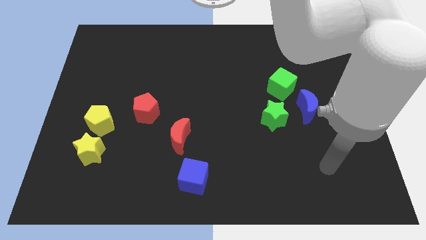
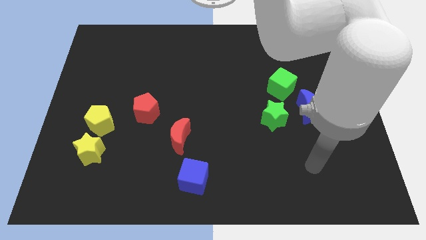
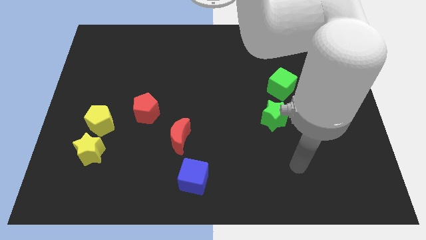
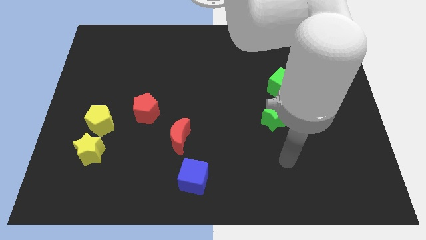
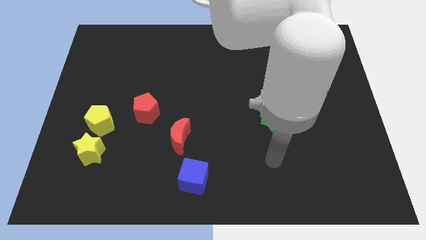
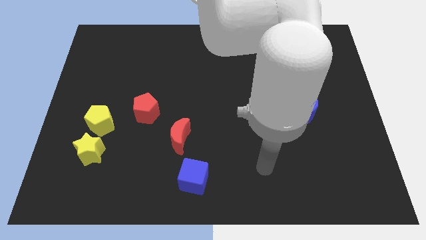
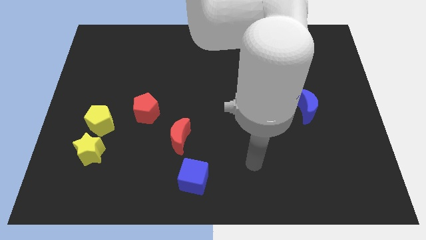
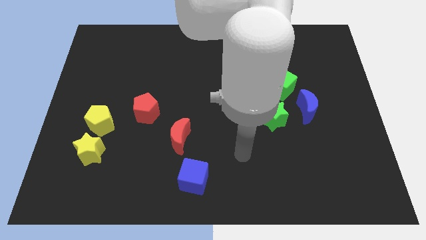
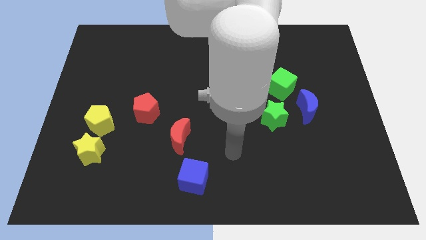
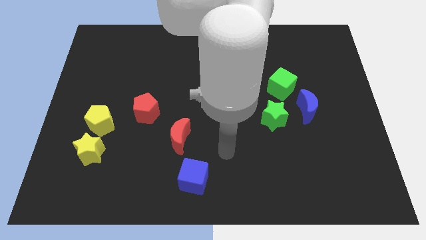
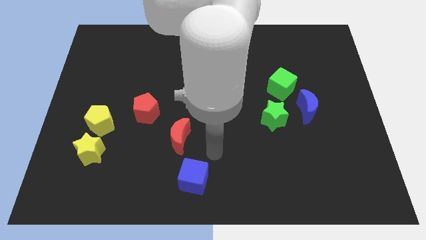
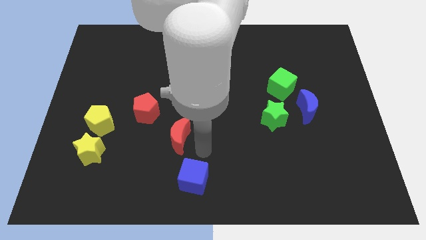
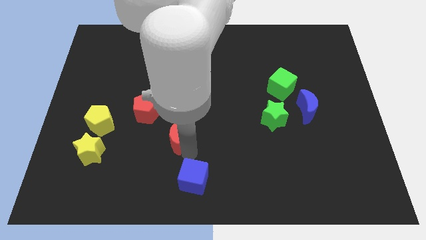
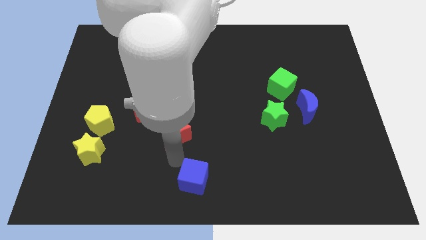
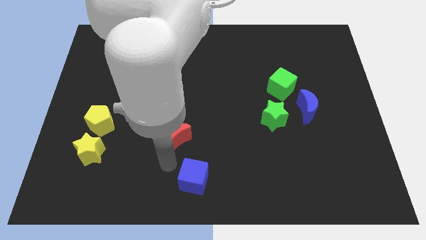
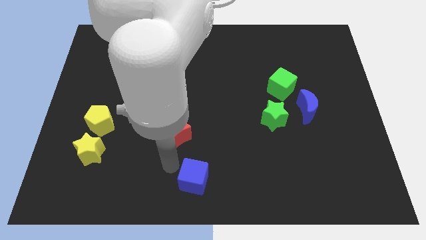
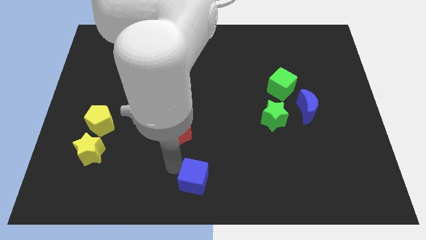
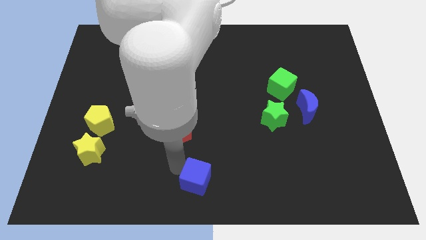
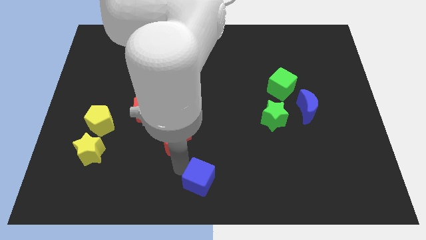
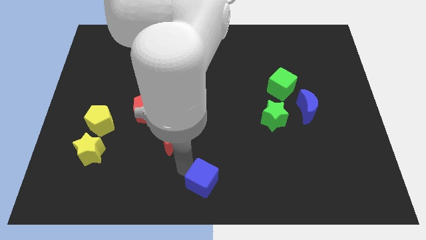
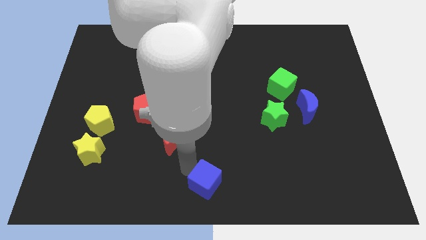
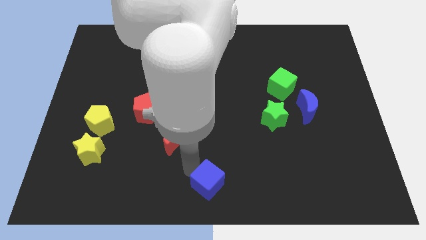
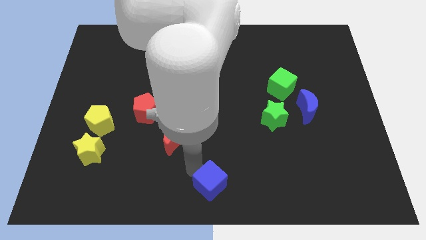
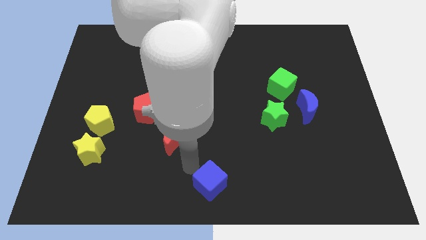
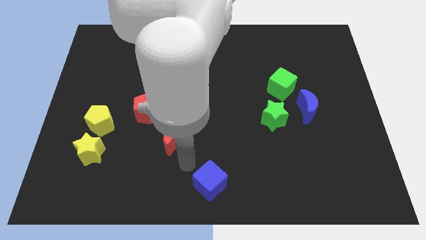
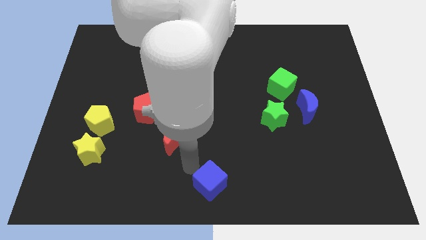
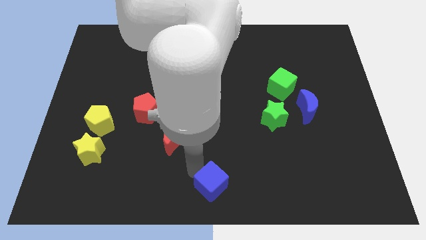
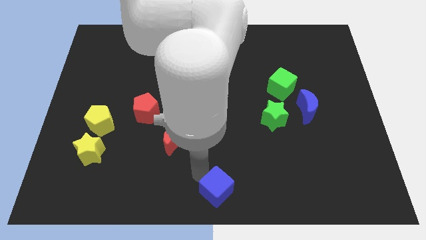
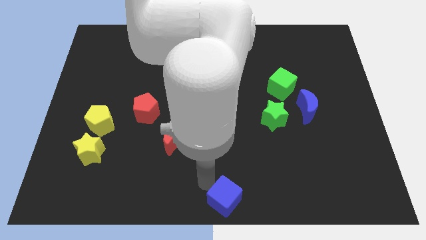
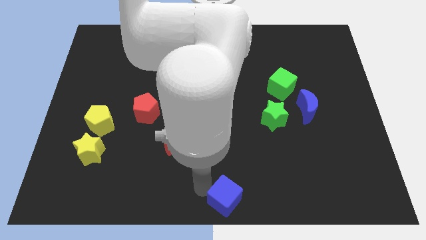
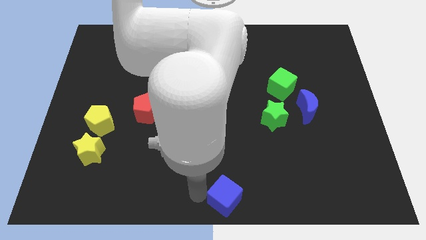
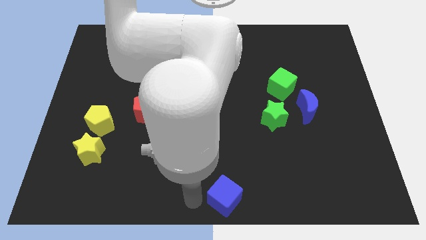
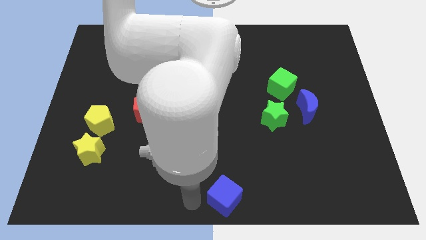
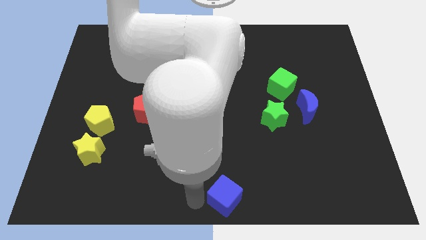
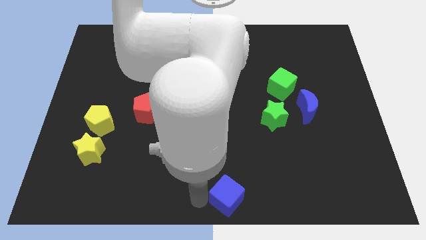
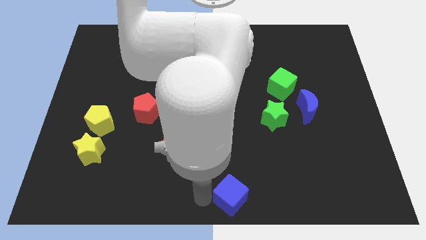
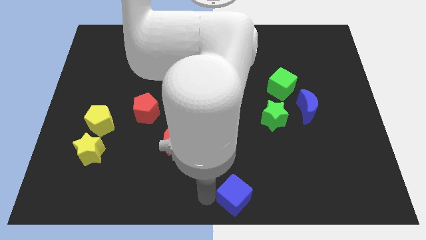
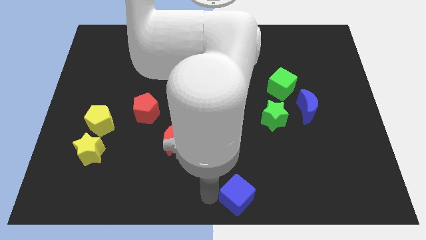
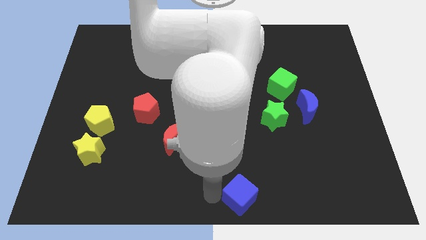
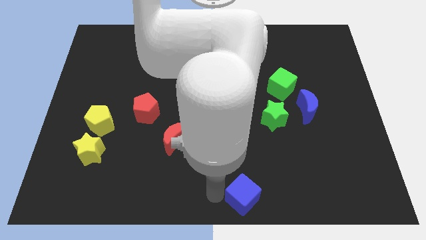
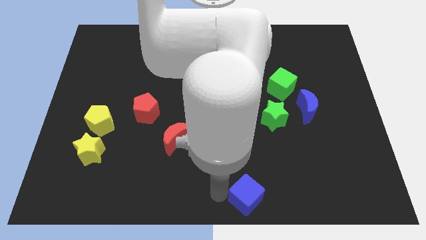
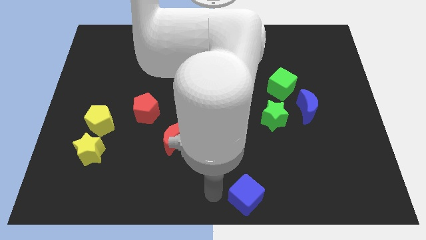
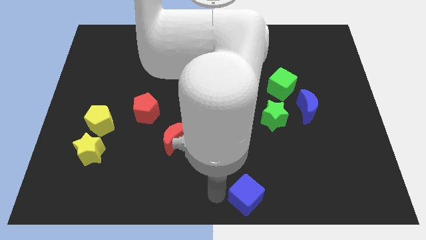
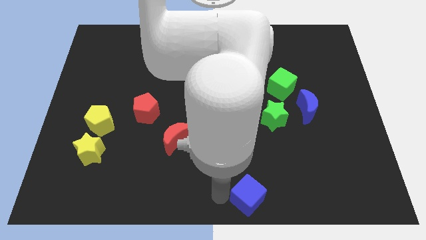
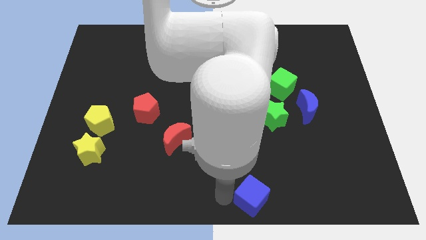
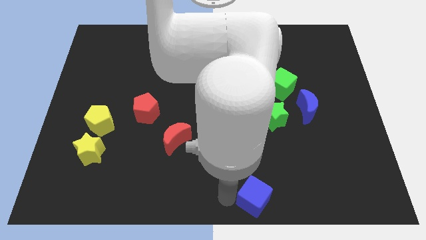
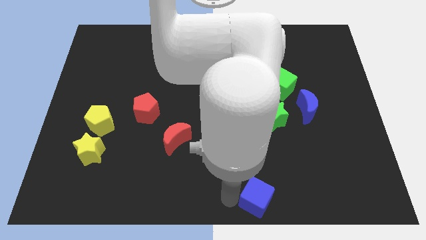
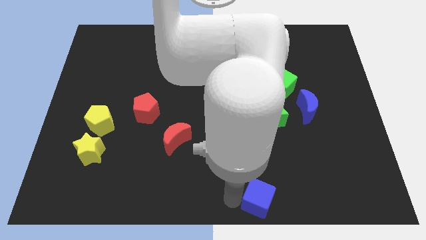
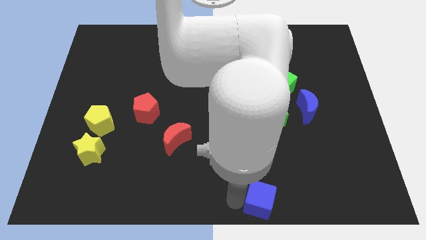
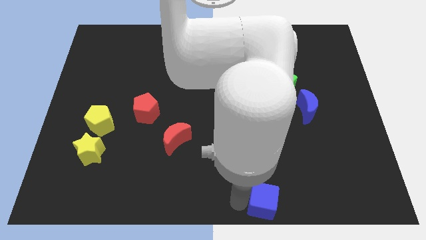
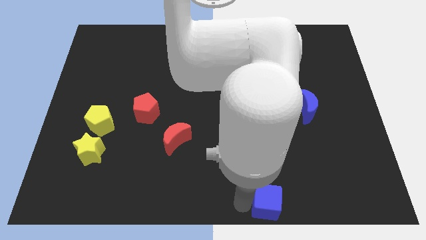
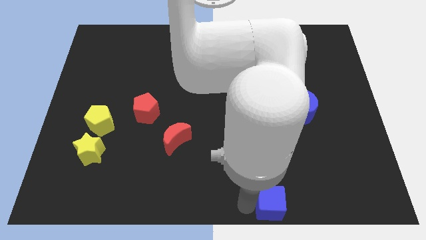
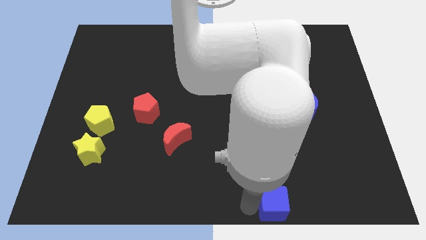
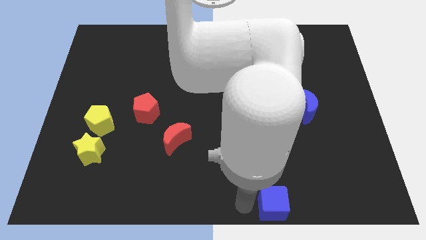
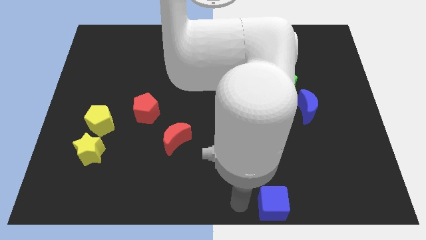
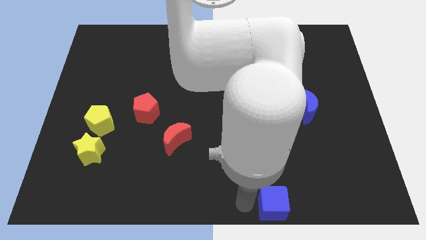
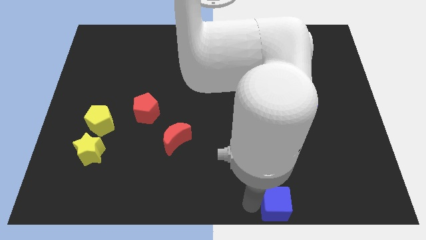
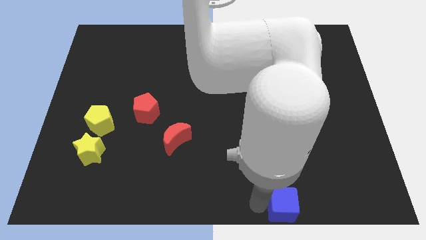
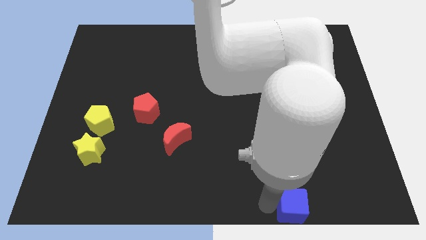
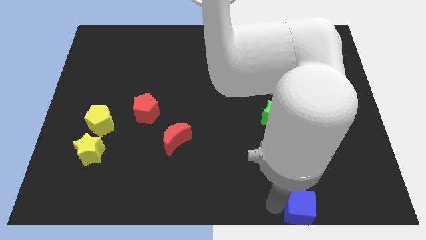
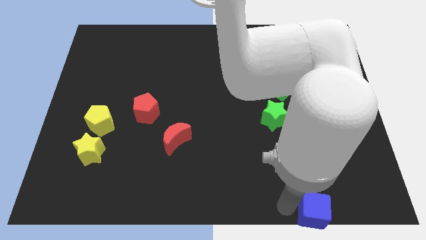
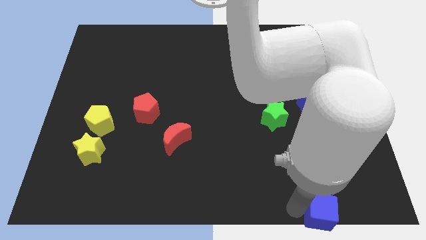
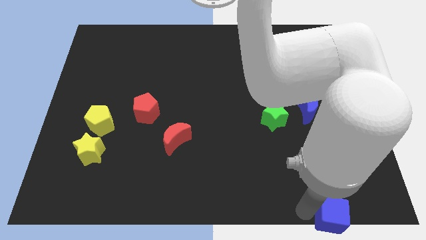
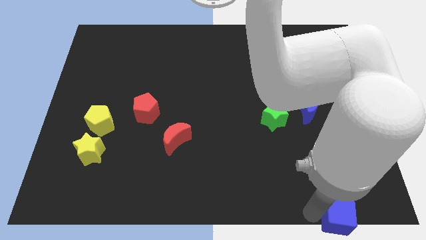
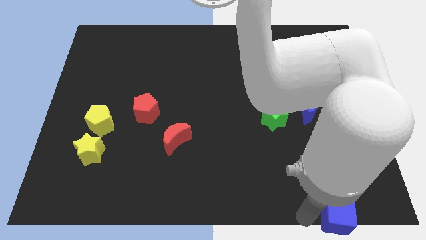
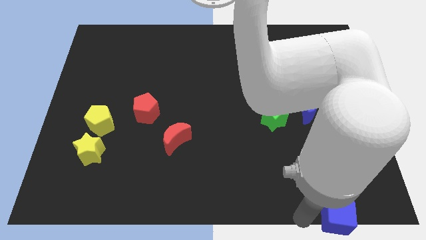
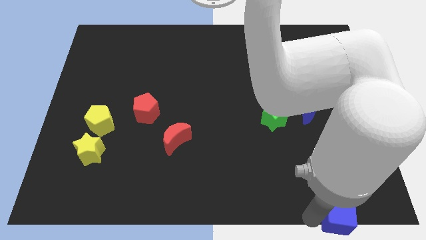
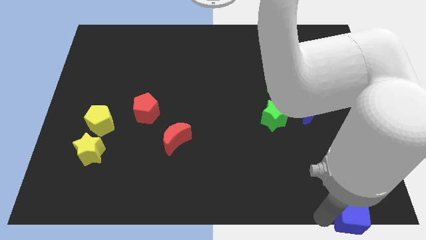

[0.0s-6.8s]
put the blue cube to the bottom right corner
